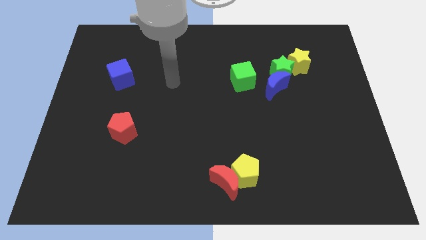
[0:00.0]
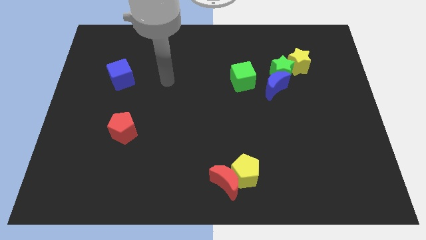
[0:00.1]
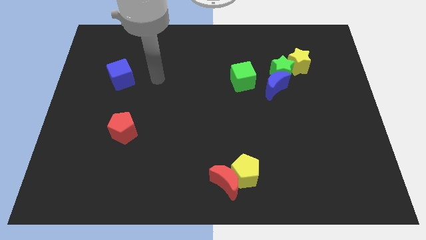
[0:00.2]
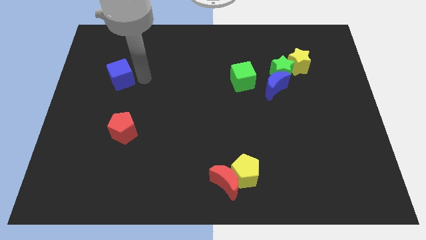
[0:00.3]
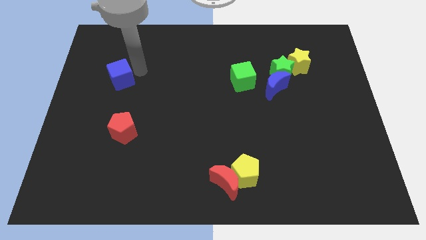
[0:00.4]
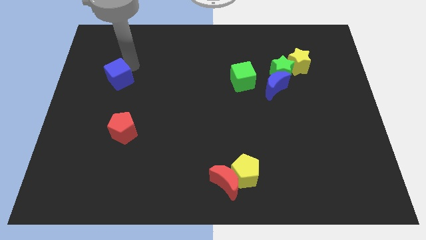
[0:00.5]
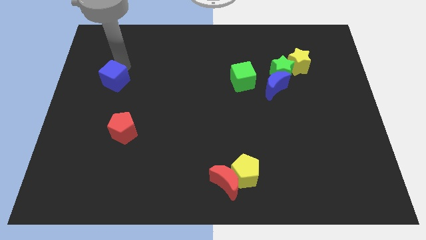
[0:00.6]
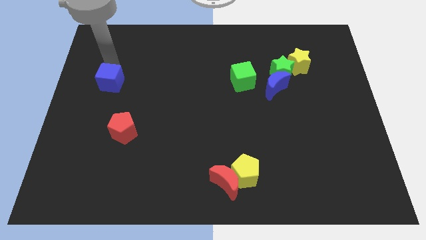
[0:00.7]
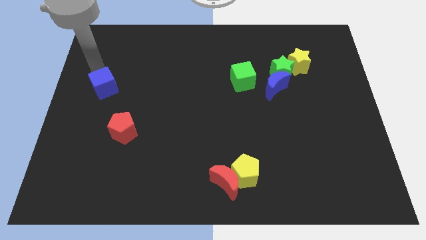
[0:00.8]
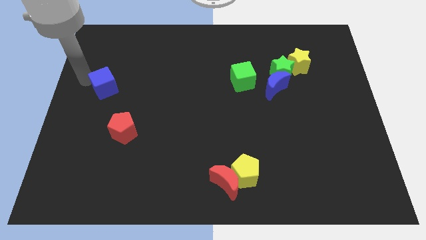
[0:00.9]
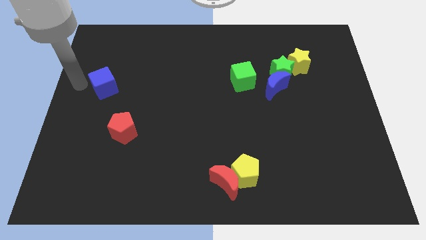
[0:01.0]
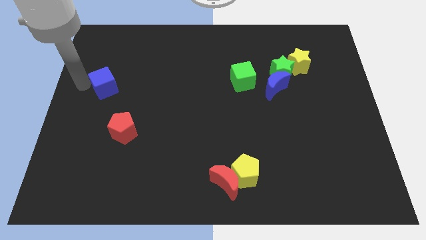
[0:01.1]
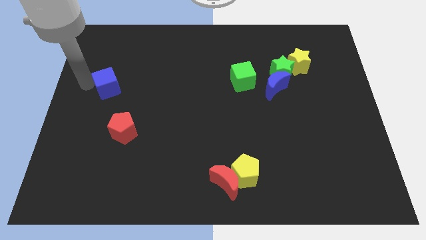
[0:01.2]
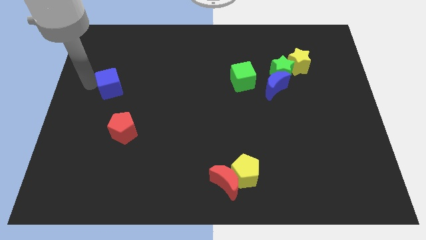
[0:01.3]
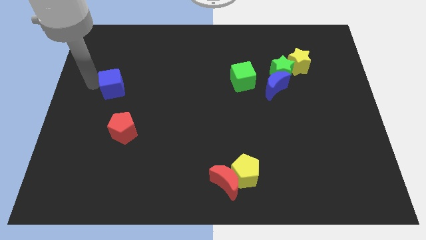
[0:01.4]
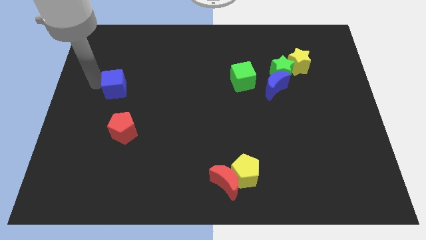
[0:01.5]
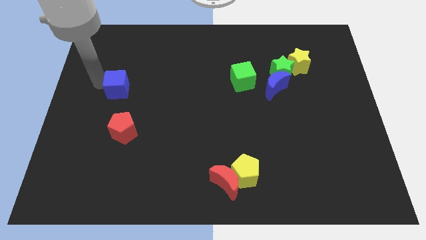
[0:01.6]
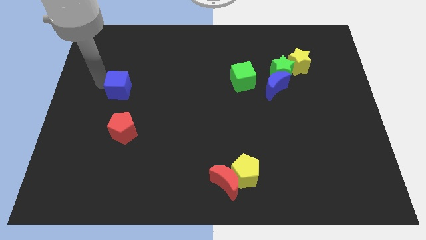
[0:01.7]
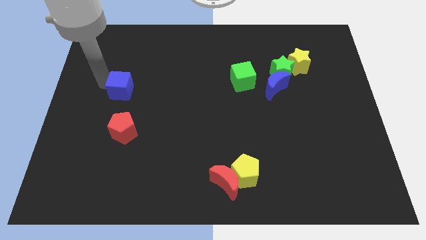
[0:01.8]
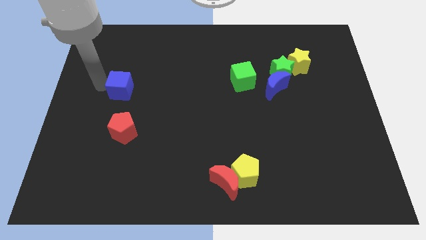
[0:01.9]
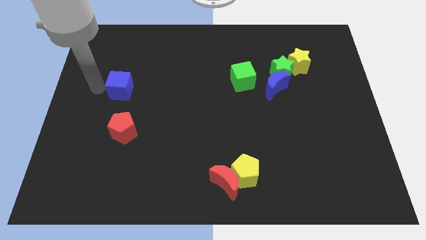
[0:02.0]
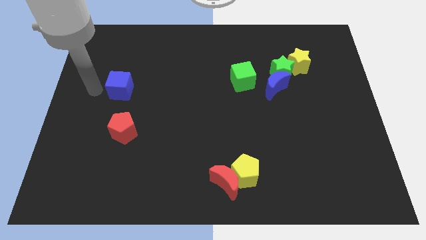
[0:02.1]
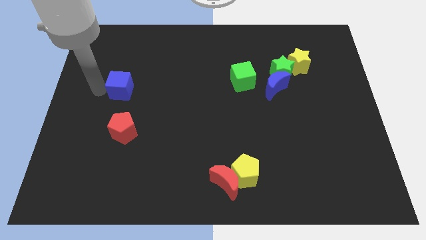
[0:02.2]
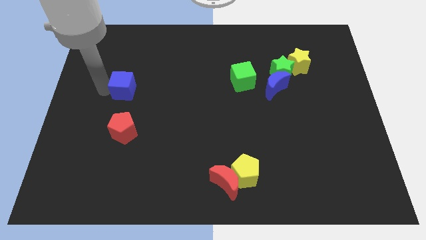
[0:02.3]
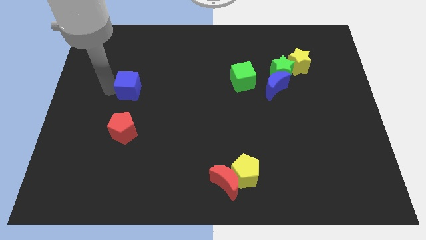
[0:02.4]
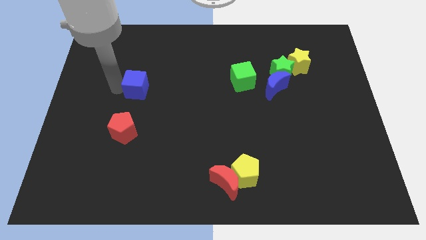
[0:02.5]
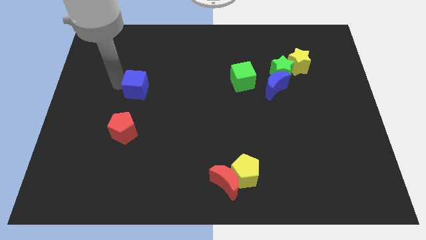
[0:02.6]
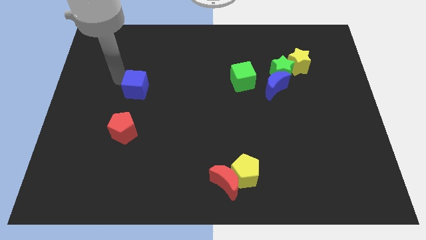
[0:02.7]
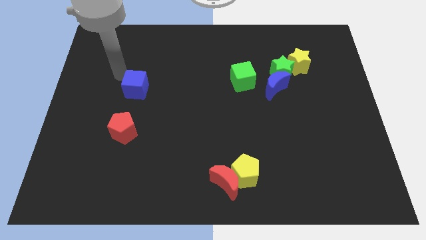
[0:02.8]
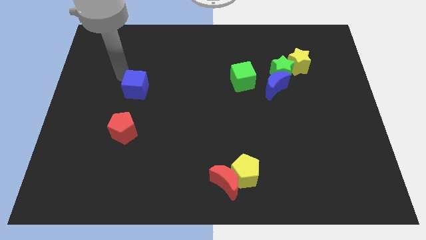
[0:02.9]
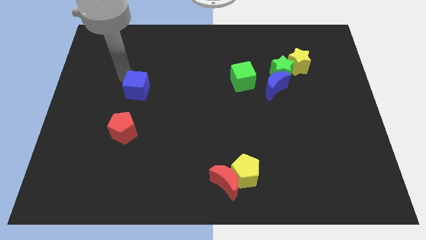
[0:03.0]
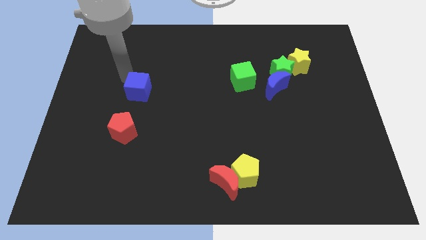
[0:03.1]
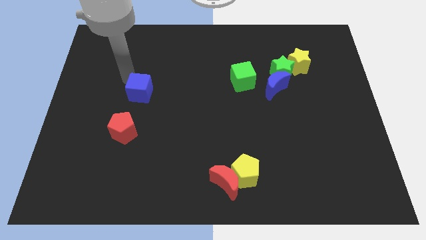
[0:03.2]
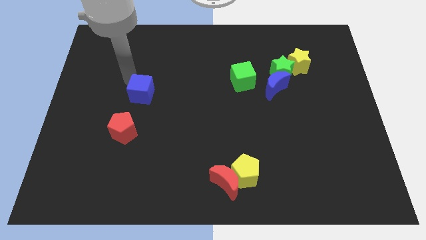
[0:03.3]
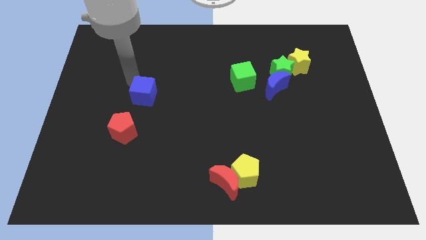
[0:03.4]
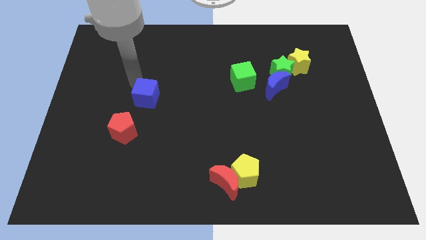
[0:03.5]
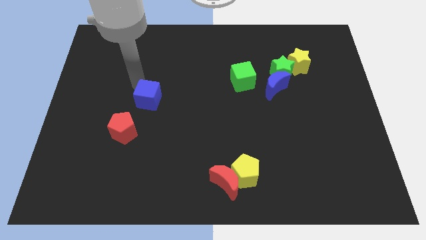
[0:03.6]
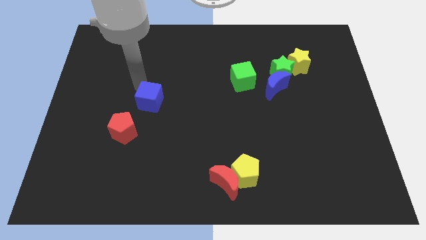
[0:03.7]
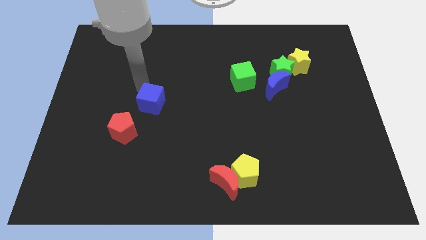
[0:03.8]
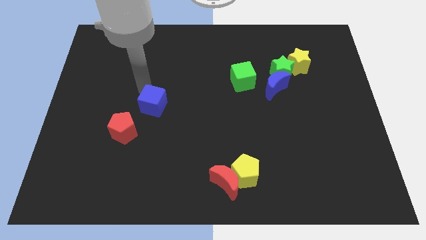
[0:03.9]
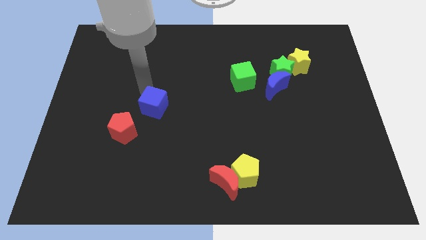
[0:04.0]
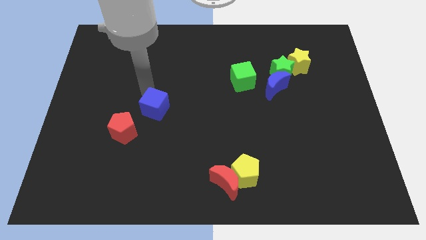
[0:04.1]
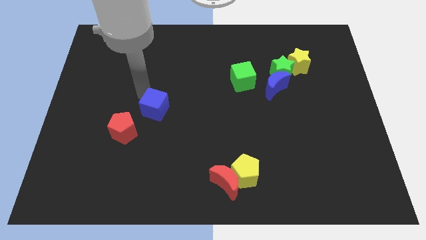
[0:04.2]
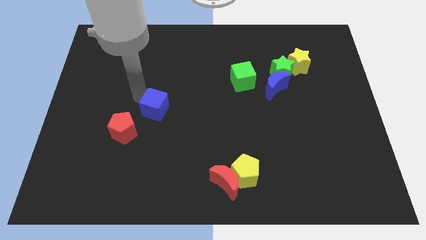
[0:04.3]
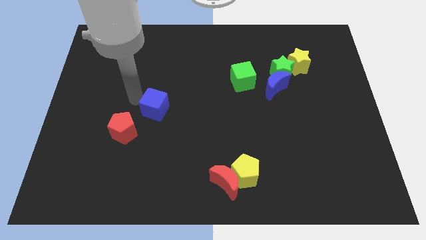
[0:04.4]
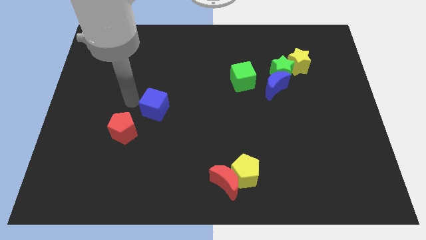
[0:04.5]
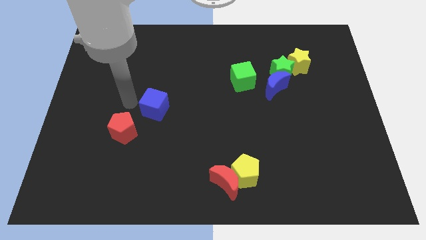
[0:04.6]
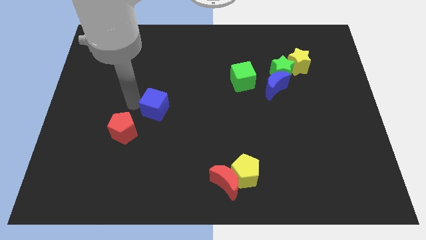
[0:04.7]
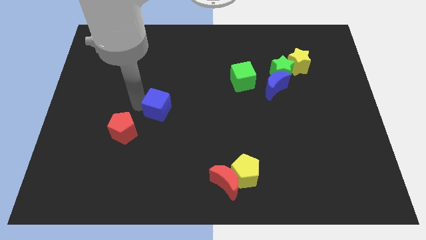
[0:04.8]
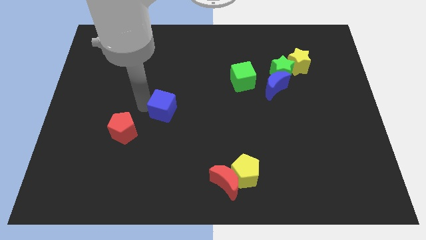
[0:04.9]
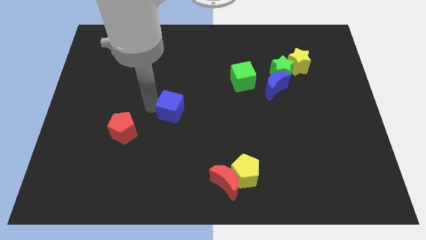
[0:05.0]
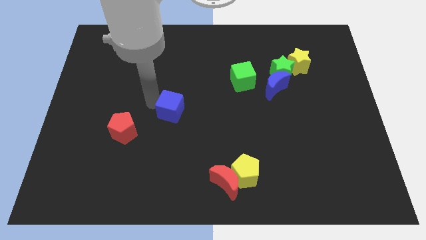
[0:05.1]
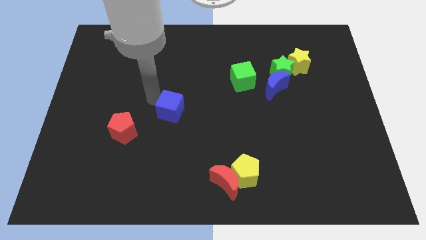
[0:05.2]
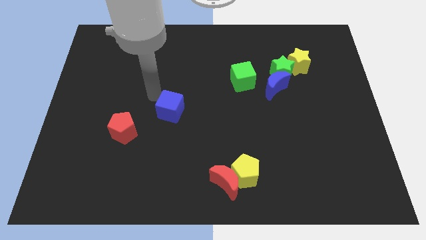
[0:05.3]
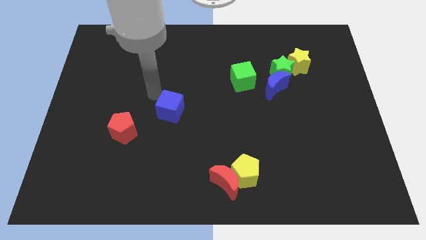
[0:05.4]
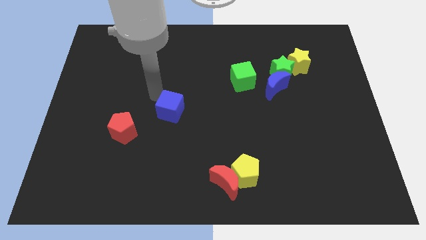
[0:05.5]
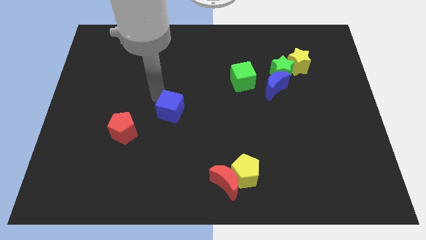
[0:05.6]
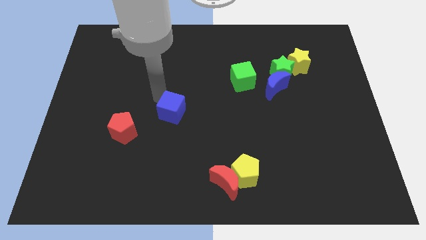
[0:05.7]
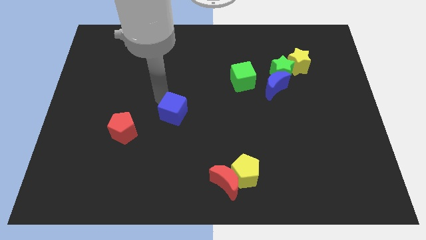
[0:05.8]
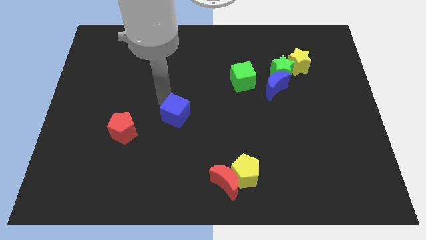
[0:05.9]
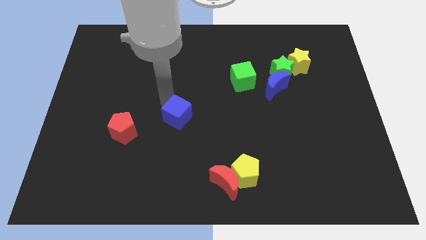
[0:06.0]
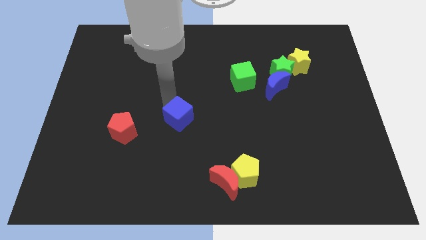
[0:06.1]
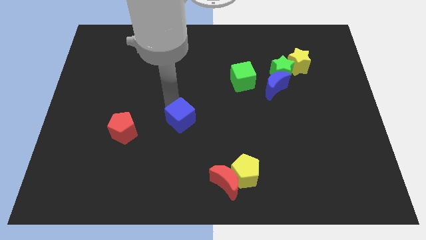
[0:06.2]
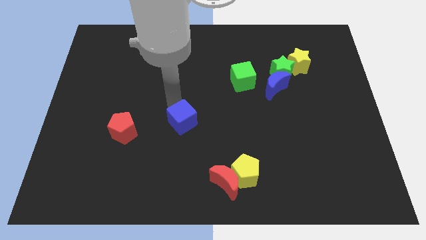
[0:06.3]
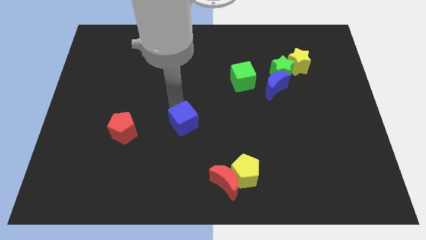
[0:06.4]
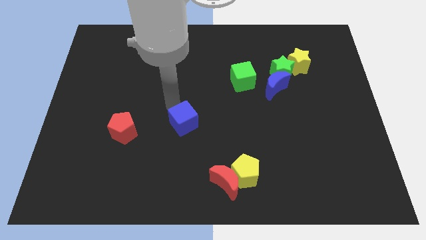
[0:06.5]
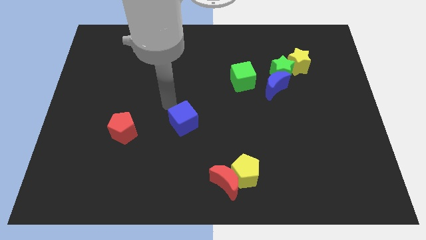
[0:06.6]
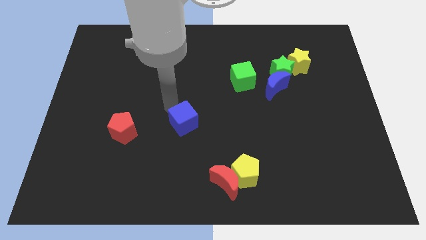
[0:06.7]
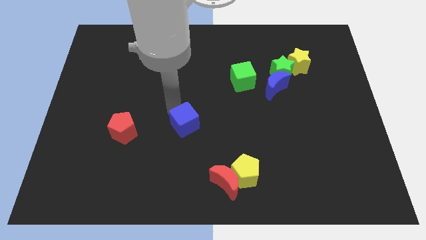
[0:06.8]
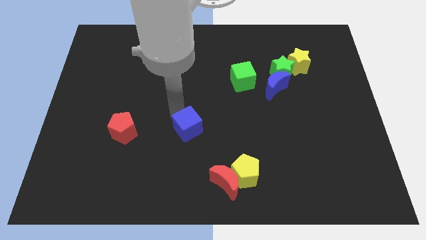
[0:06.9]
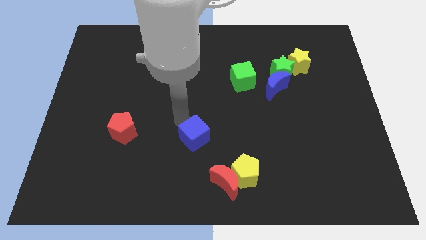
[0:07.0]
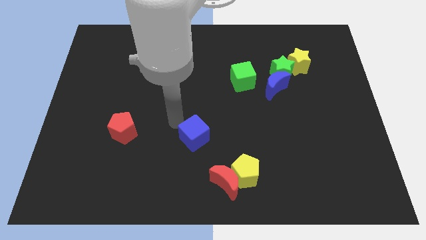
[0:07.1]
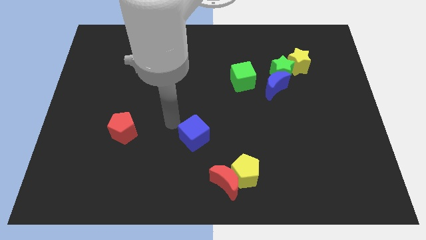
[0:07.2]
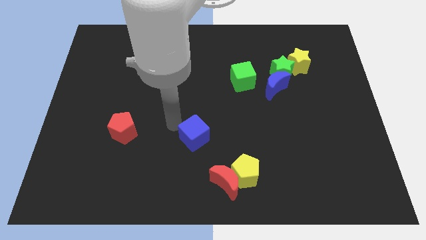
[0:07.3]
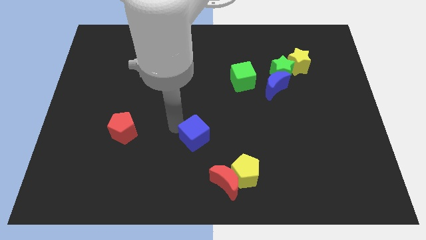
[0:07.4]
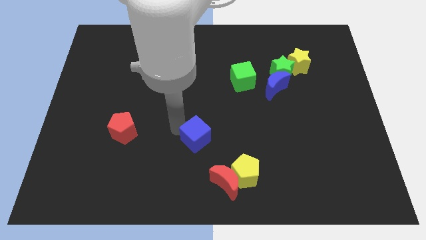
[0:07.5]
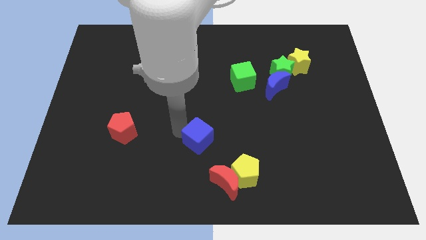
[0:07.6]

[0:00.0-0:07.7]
slide the blue cube to the top left side of the yellow pentagon

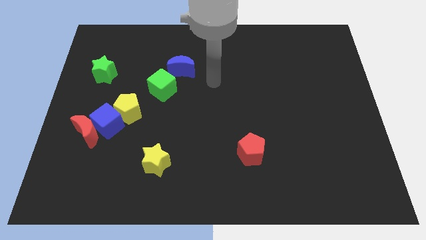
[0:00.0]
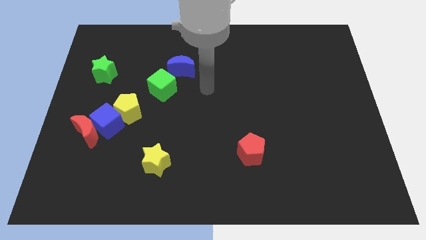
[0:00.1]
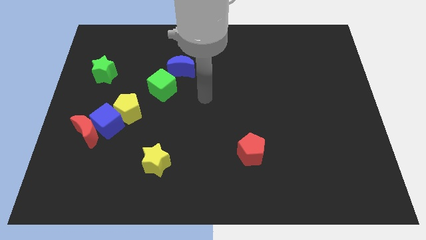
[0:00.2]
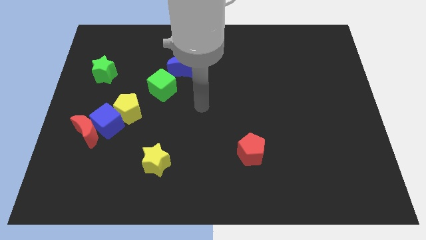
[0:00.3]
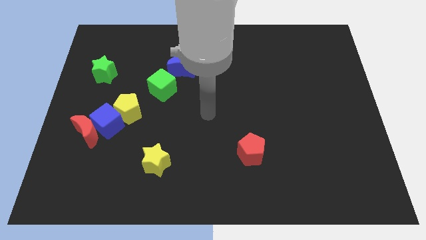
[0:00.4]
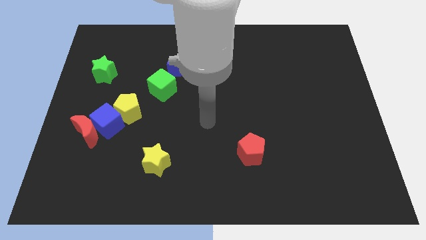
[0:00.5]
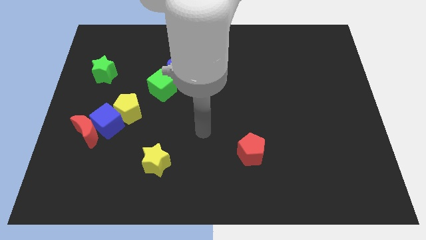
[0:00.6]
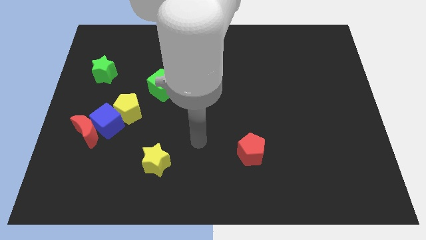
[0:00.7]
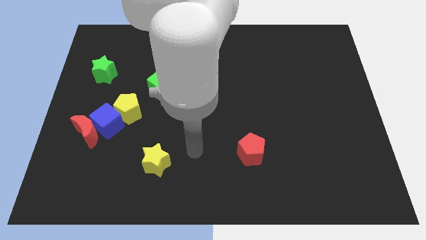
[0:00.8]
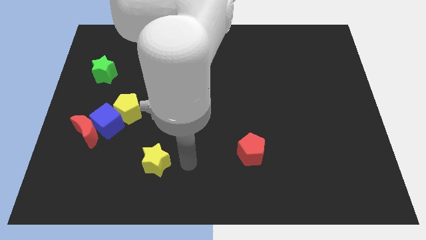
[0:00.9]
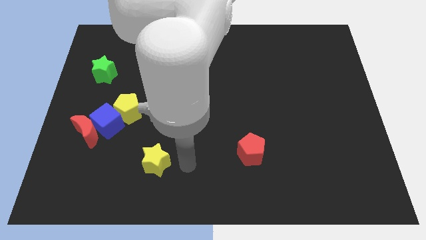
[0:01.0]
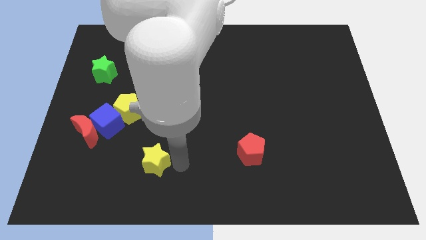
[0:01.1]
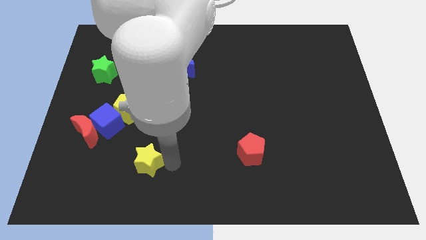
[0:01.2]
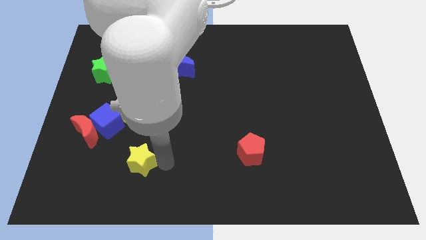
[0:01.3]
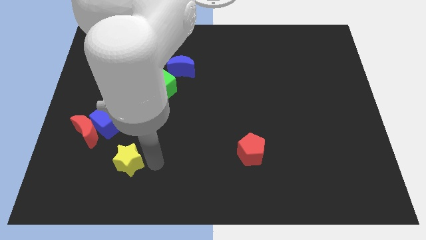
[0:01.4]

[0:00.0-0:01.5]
move the yellow star diagonally down and to the right of the red moon
